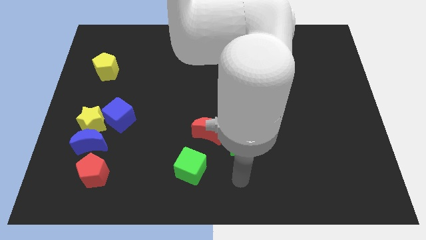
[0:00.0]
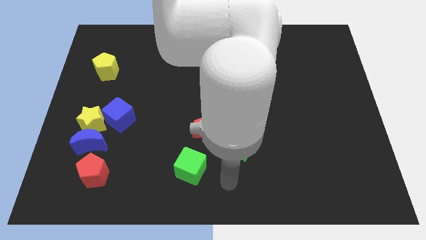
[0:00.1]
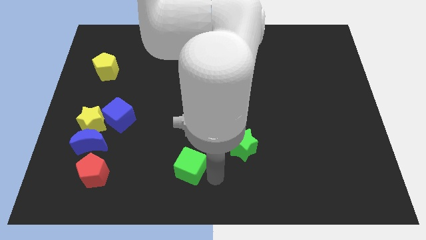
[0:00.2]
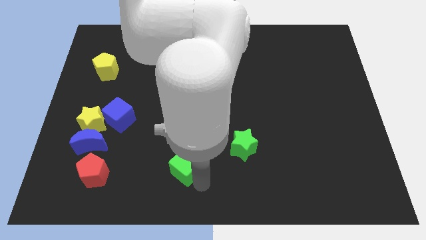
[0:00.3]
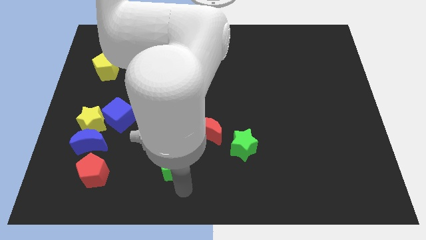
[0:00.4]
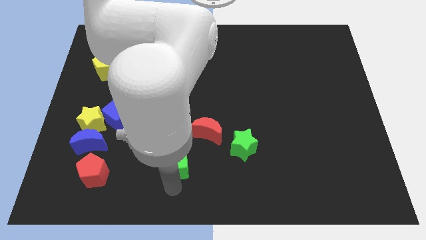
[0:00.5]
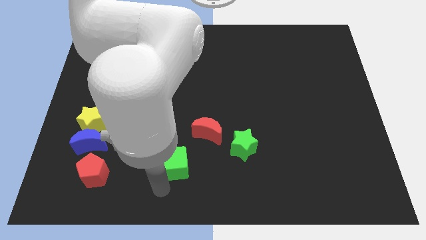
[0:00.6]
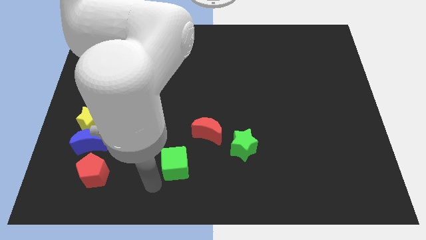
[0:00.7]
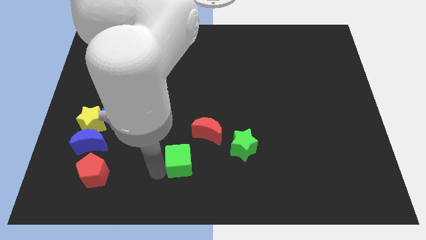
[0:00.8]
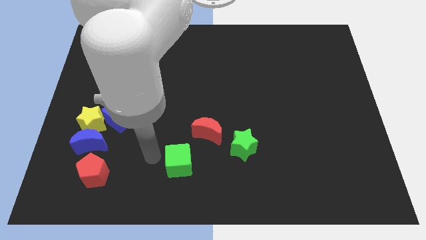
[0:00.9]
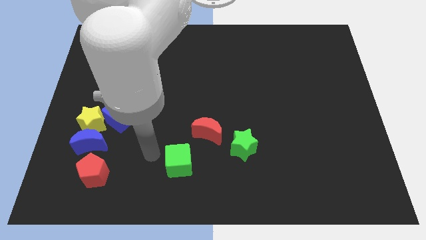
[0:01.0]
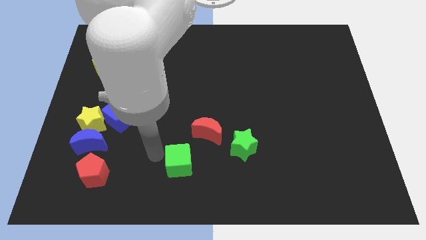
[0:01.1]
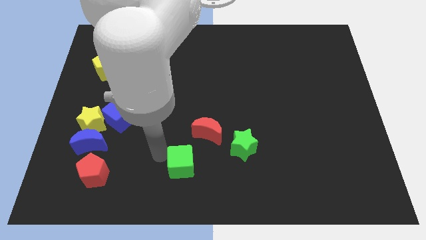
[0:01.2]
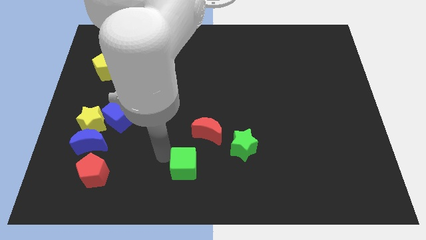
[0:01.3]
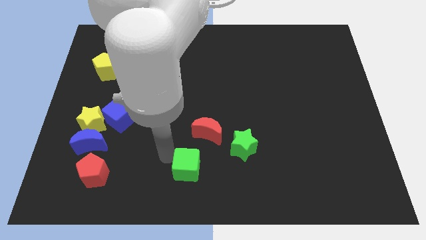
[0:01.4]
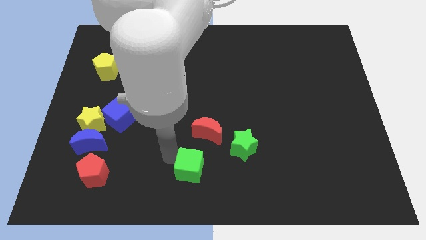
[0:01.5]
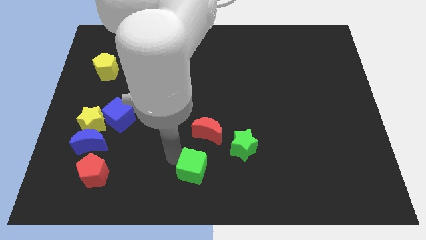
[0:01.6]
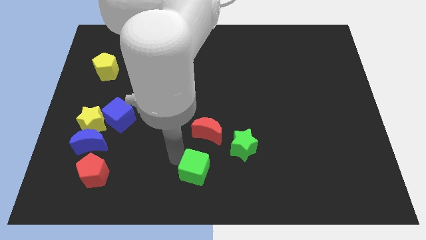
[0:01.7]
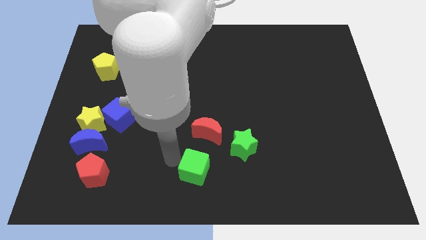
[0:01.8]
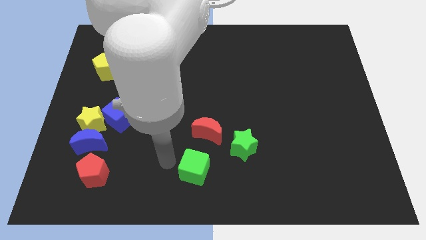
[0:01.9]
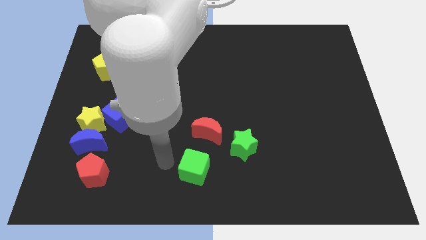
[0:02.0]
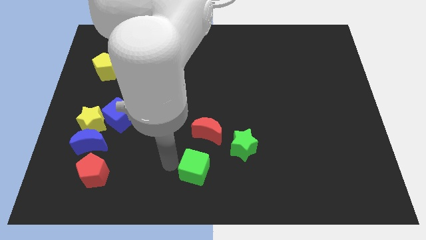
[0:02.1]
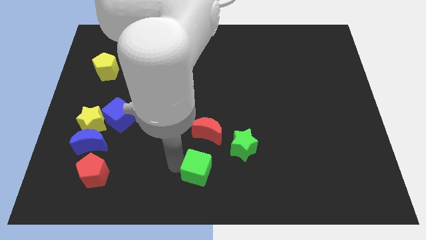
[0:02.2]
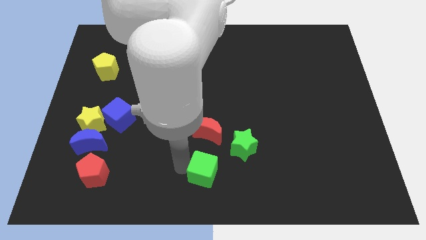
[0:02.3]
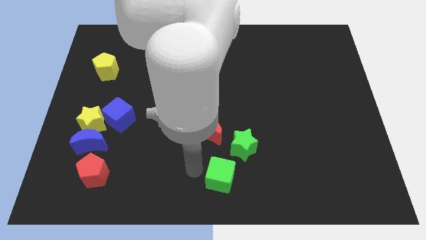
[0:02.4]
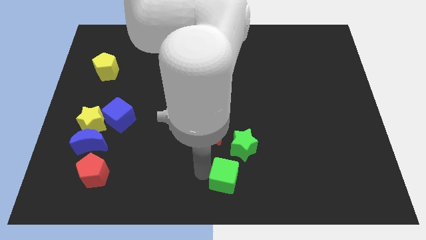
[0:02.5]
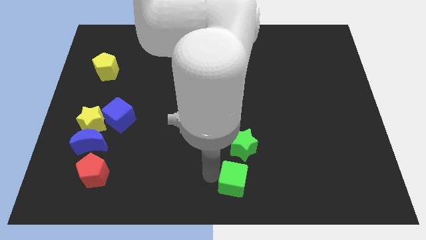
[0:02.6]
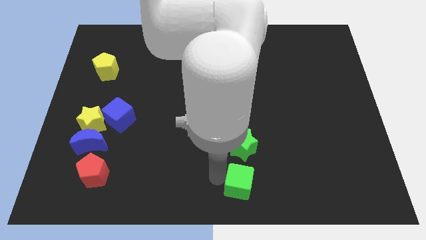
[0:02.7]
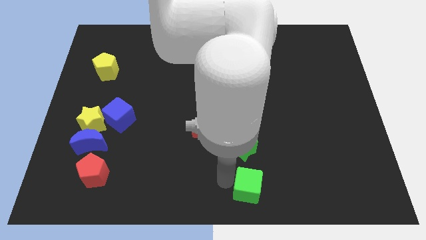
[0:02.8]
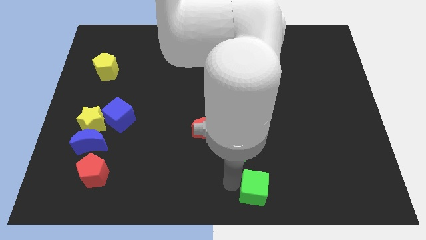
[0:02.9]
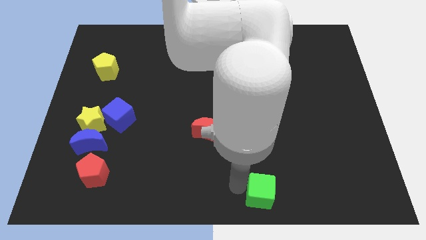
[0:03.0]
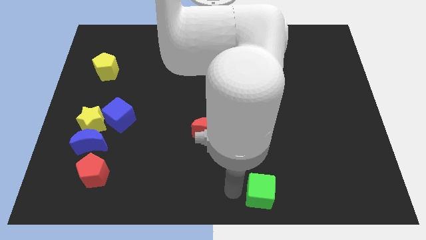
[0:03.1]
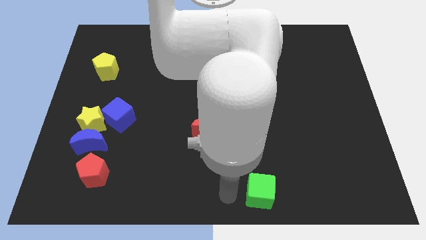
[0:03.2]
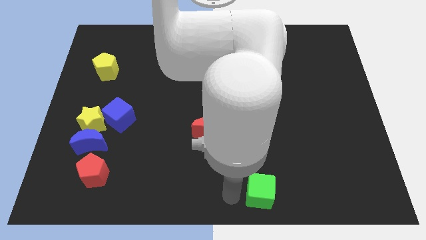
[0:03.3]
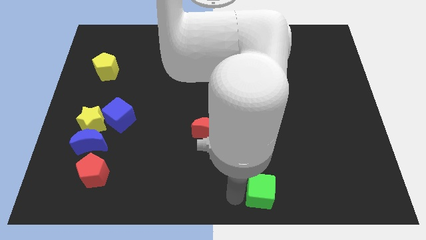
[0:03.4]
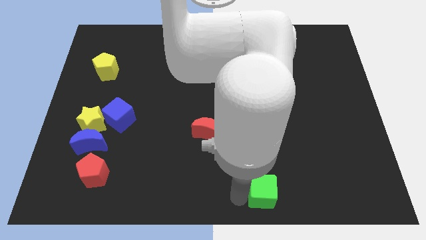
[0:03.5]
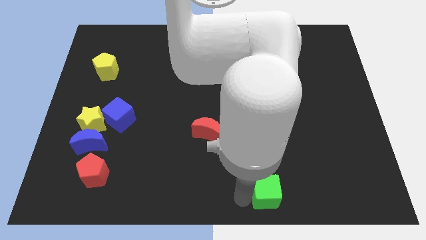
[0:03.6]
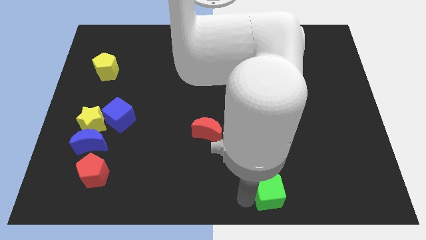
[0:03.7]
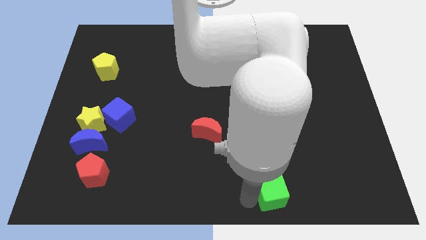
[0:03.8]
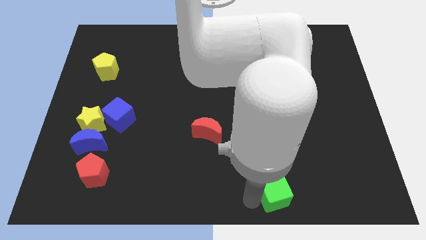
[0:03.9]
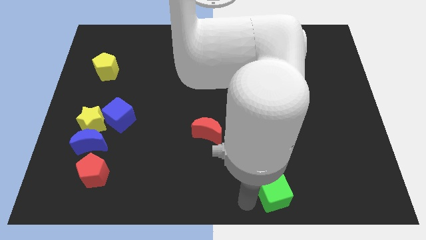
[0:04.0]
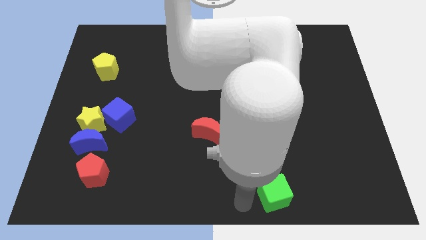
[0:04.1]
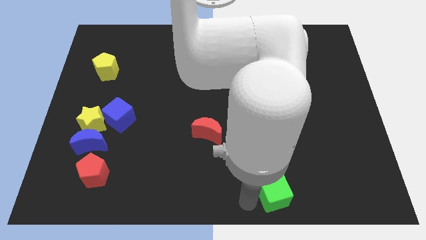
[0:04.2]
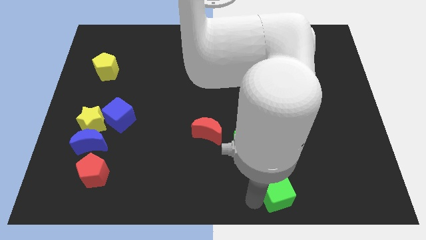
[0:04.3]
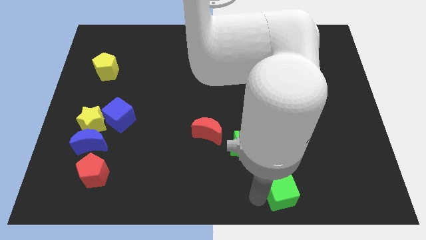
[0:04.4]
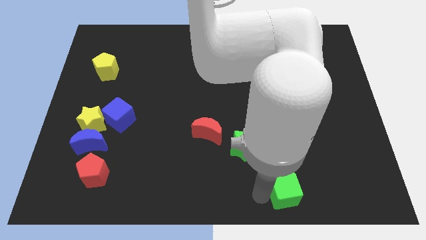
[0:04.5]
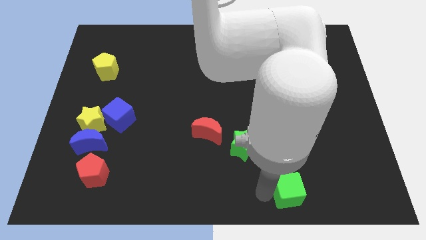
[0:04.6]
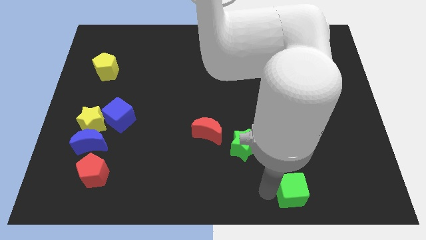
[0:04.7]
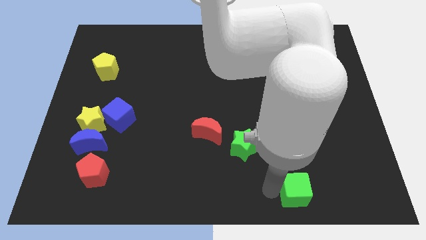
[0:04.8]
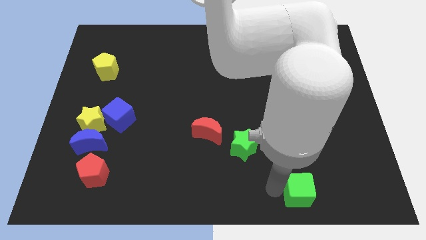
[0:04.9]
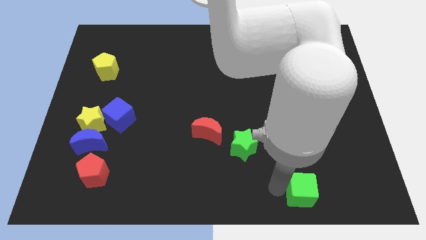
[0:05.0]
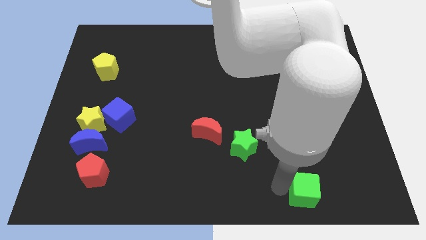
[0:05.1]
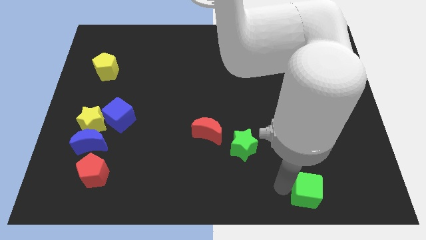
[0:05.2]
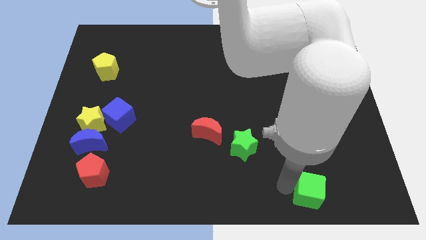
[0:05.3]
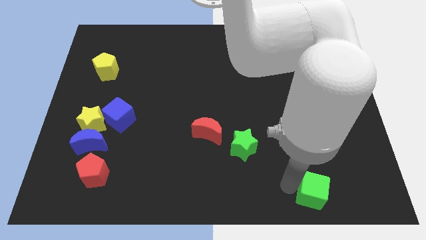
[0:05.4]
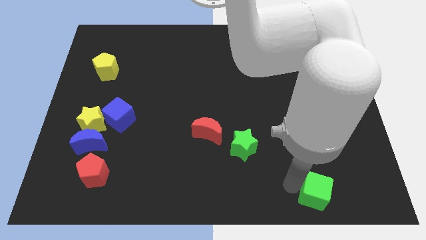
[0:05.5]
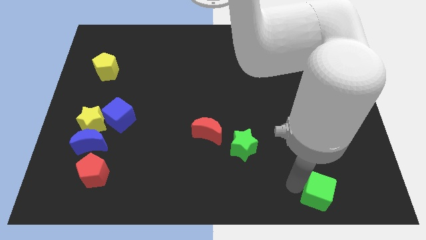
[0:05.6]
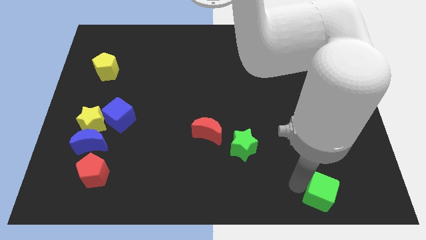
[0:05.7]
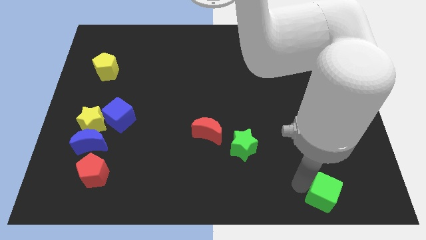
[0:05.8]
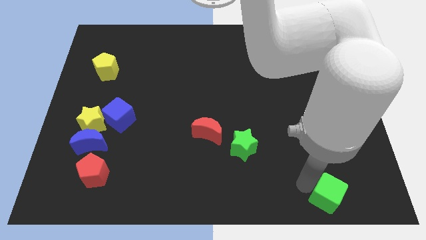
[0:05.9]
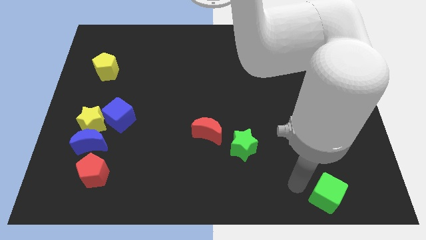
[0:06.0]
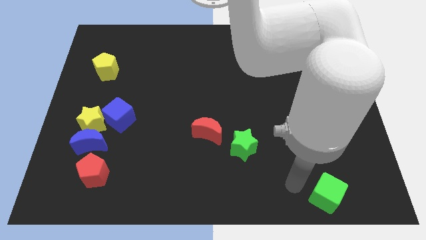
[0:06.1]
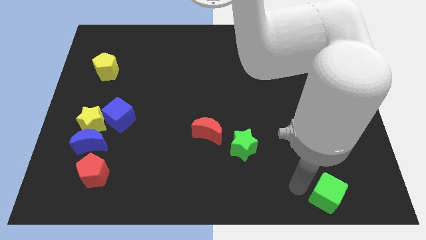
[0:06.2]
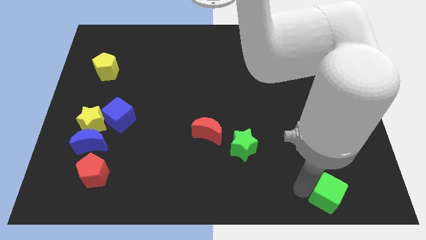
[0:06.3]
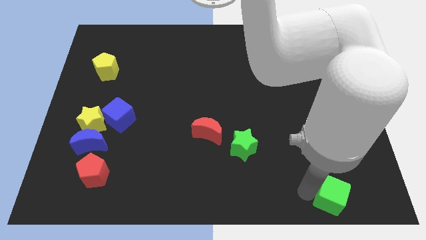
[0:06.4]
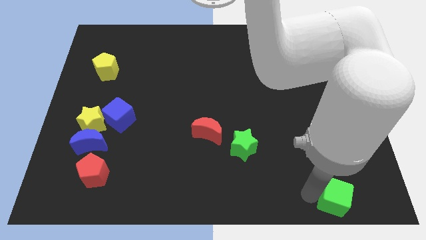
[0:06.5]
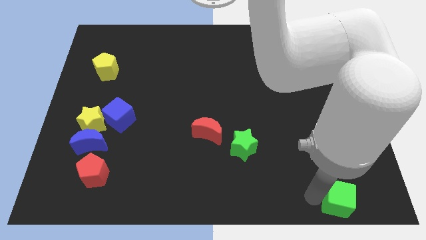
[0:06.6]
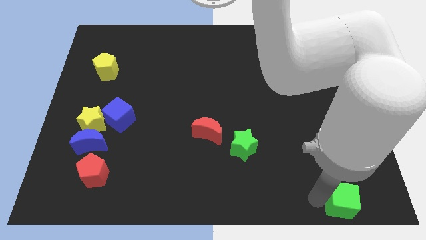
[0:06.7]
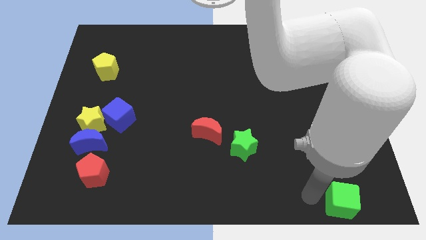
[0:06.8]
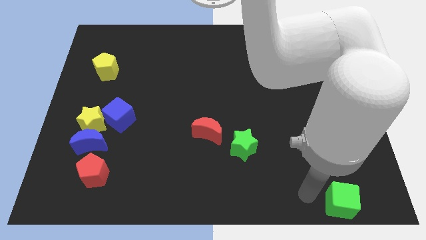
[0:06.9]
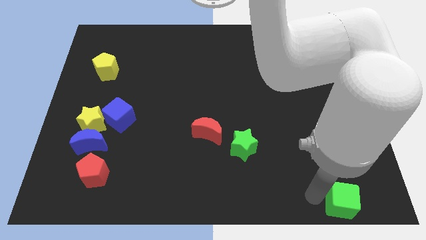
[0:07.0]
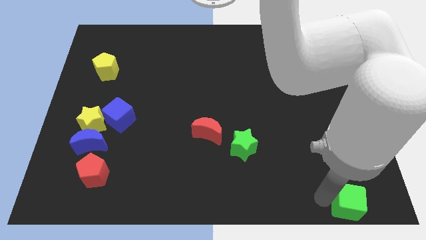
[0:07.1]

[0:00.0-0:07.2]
push the green cube to the lower right corner
